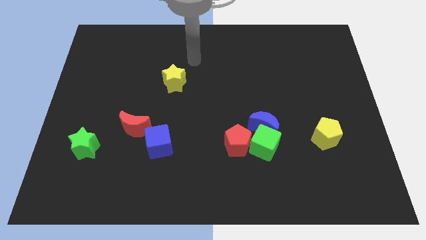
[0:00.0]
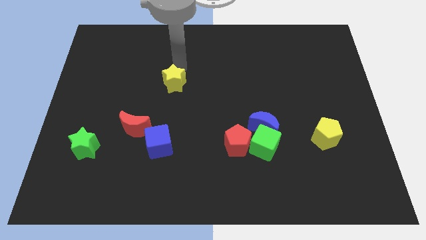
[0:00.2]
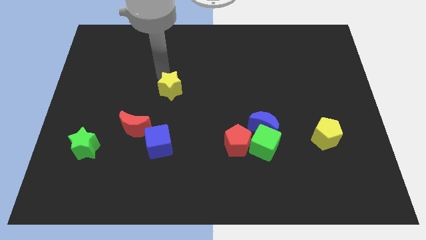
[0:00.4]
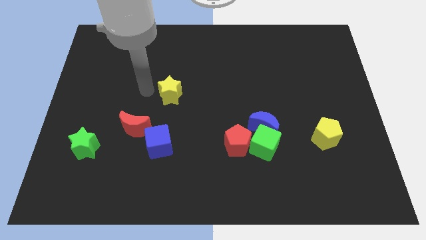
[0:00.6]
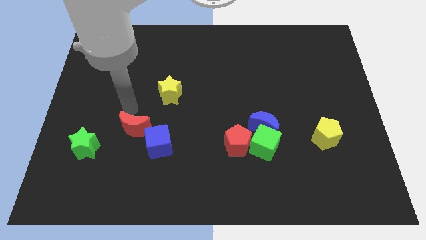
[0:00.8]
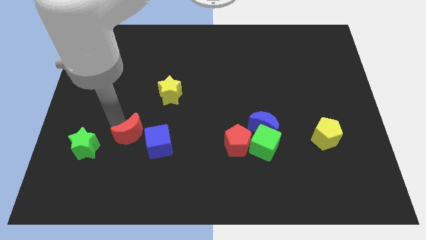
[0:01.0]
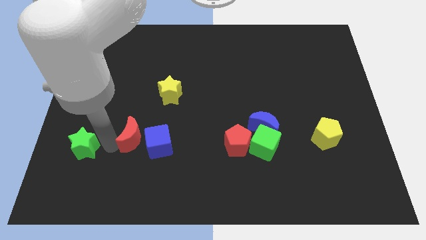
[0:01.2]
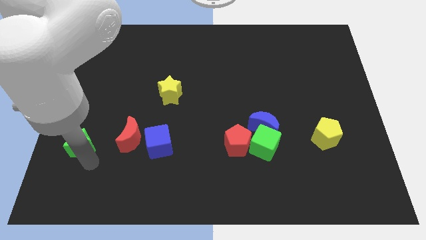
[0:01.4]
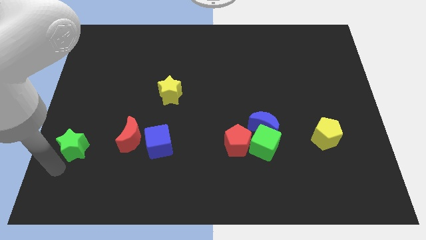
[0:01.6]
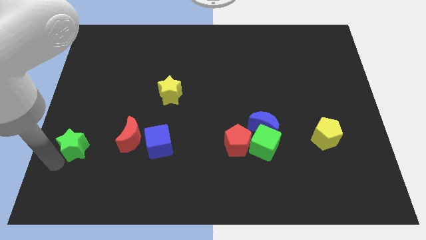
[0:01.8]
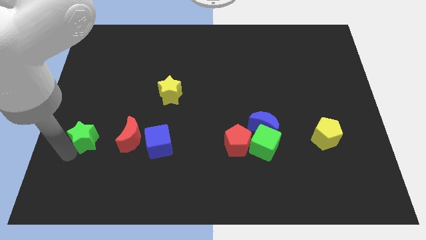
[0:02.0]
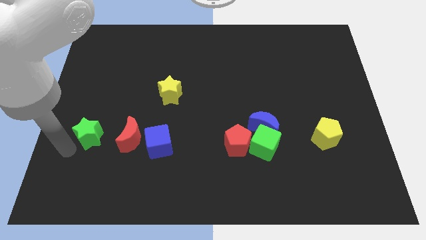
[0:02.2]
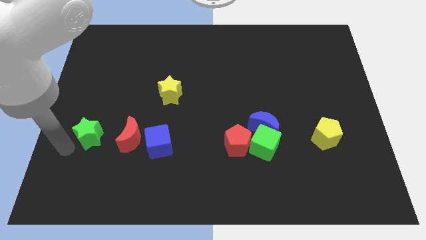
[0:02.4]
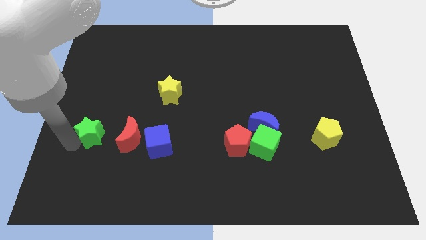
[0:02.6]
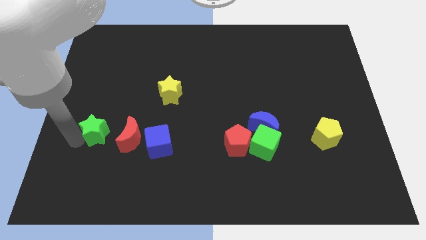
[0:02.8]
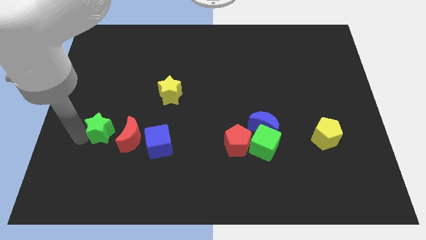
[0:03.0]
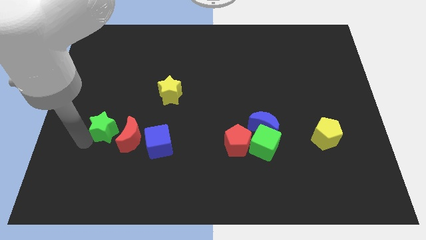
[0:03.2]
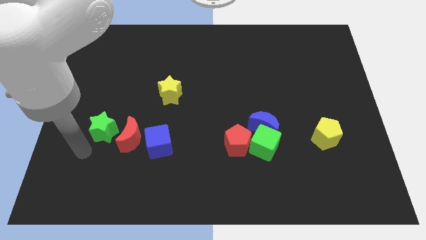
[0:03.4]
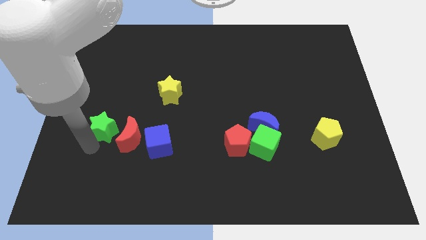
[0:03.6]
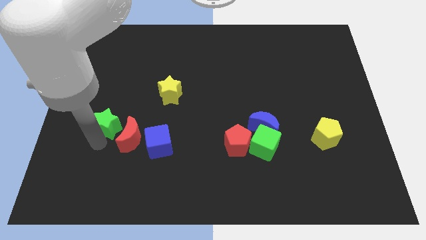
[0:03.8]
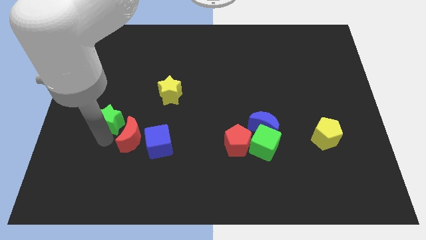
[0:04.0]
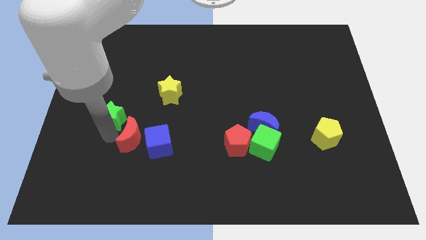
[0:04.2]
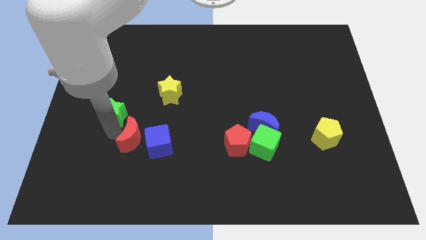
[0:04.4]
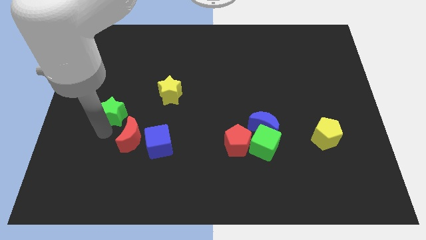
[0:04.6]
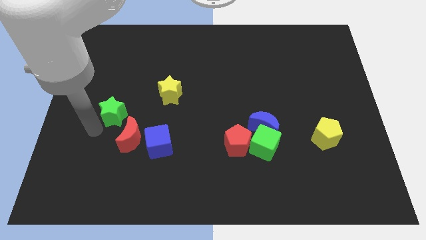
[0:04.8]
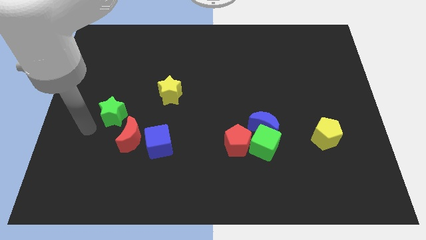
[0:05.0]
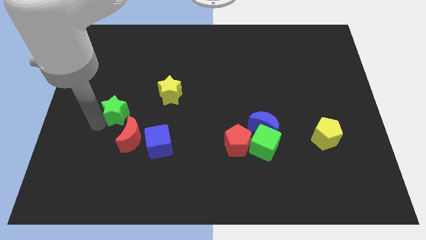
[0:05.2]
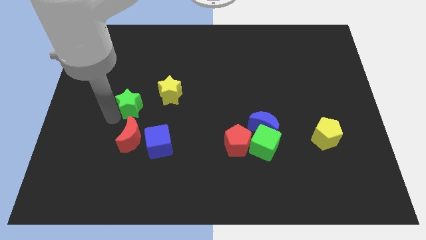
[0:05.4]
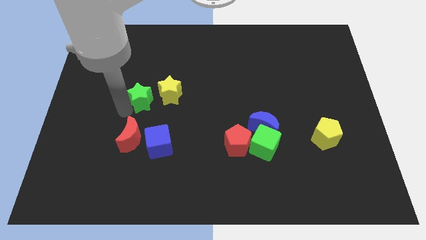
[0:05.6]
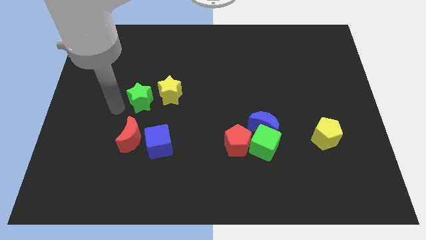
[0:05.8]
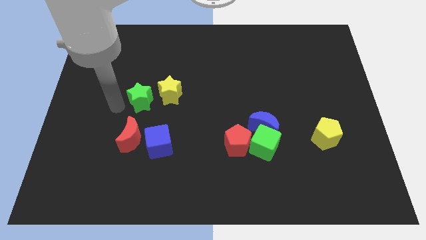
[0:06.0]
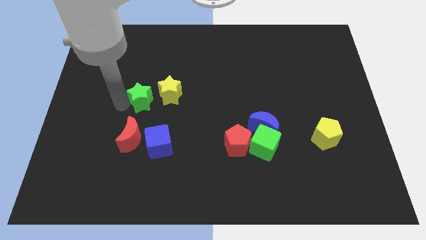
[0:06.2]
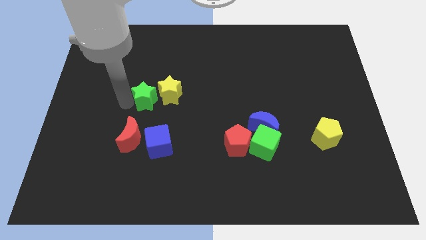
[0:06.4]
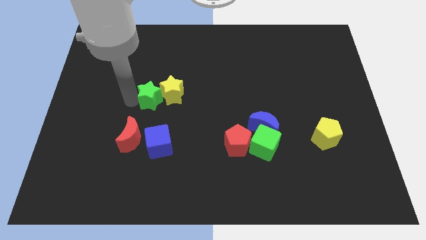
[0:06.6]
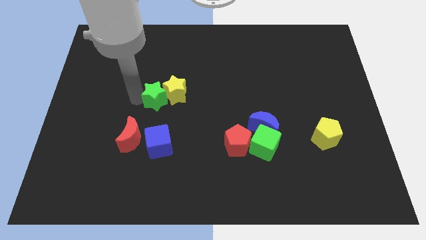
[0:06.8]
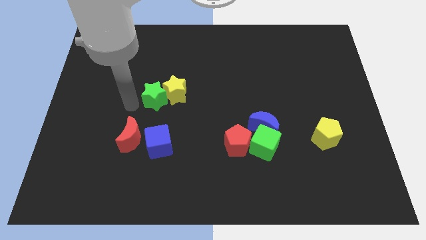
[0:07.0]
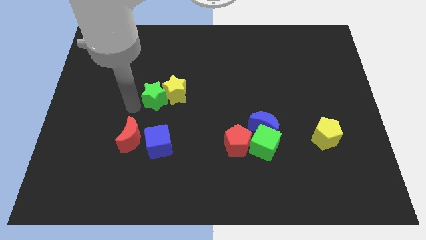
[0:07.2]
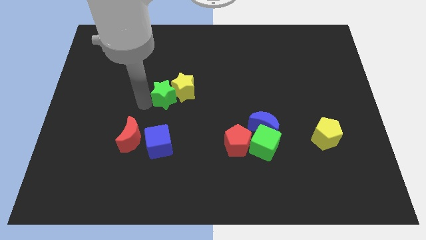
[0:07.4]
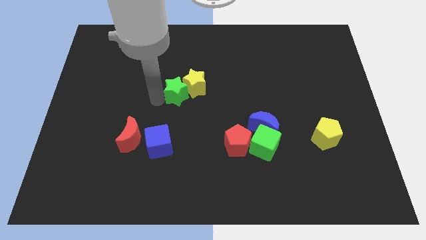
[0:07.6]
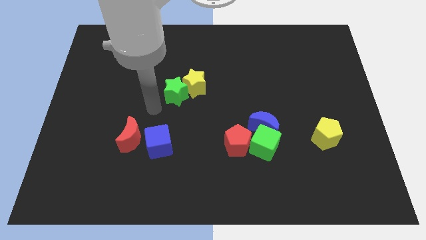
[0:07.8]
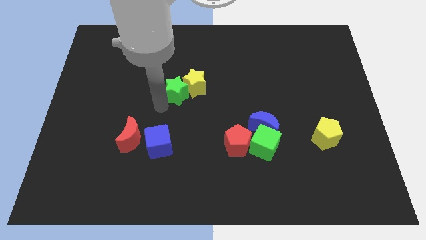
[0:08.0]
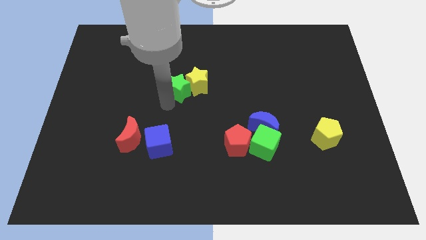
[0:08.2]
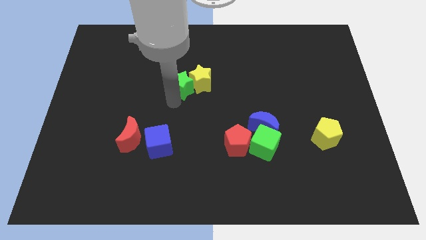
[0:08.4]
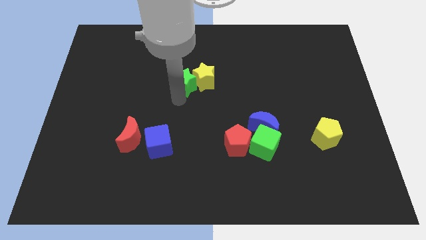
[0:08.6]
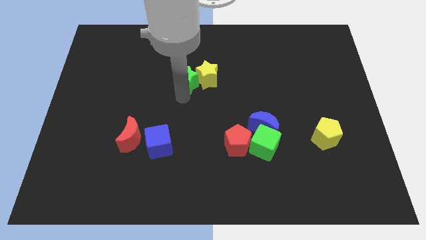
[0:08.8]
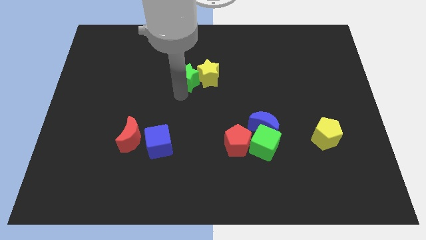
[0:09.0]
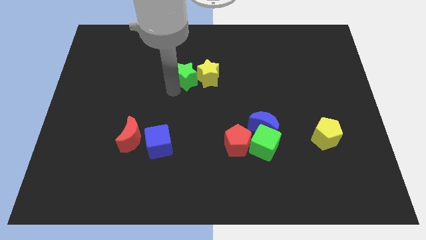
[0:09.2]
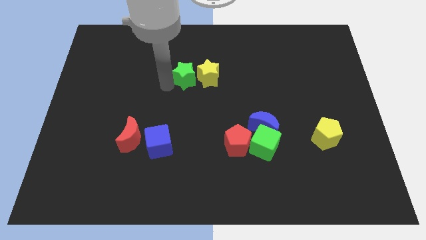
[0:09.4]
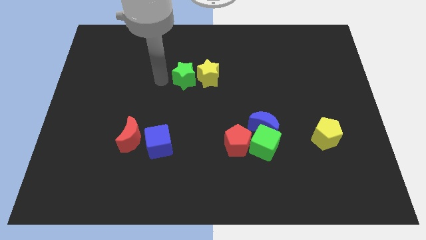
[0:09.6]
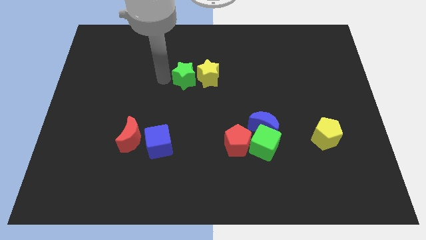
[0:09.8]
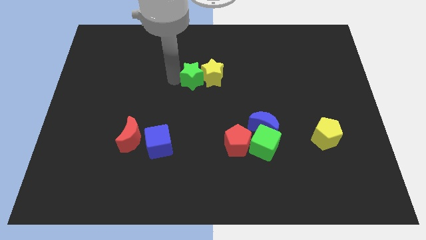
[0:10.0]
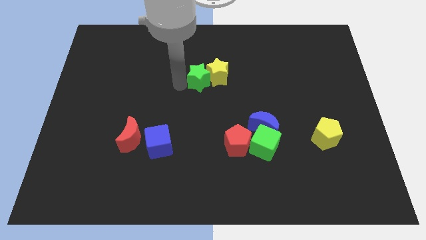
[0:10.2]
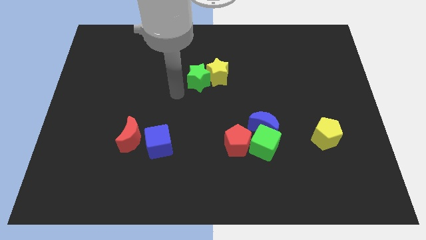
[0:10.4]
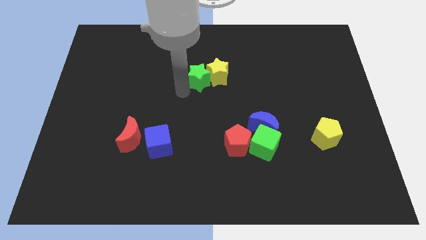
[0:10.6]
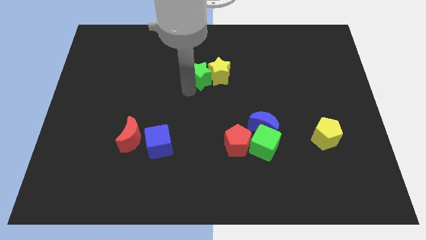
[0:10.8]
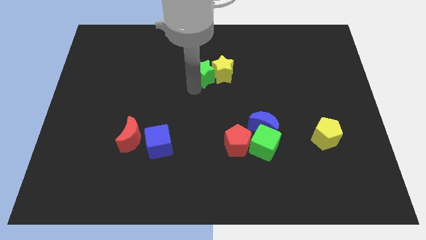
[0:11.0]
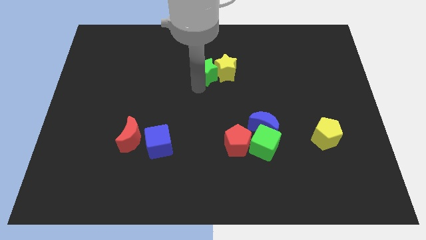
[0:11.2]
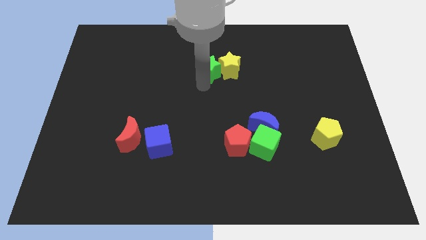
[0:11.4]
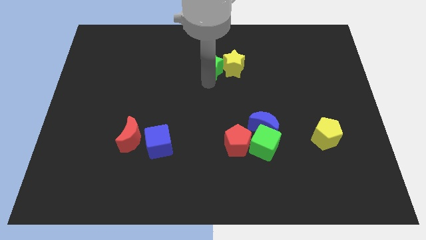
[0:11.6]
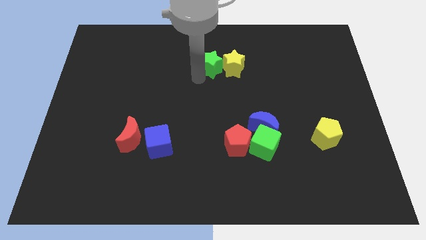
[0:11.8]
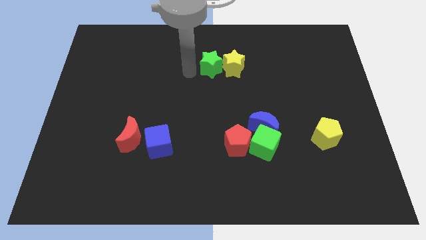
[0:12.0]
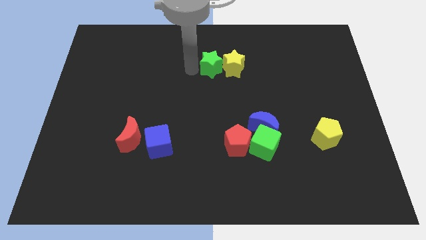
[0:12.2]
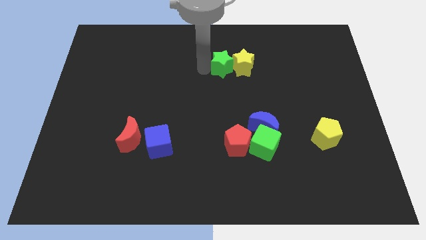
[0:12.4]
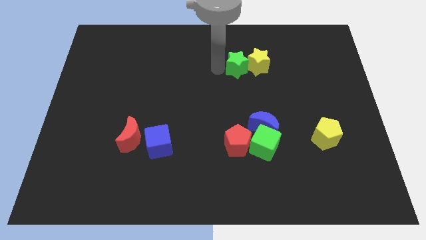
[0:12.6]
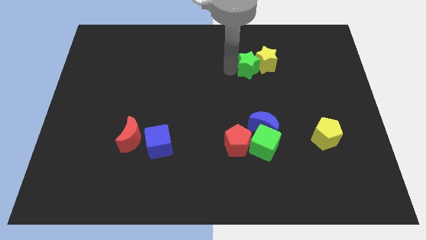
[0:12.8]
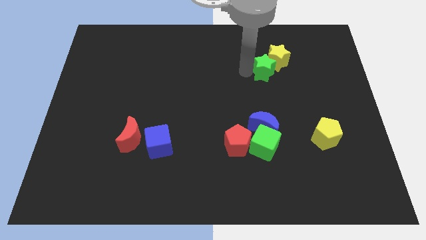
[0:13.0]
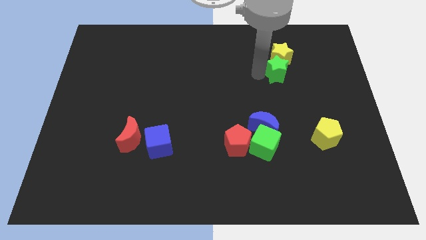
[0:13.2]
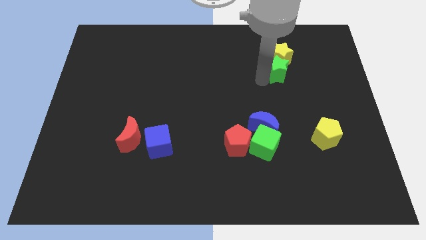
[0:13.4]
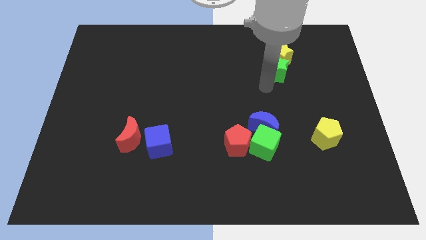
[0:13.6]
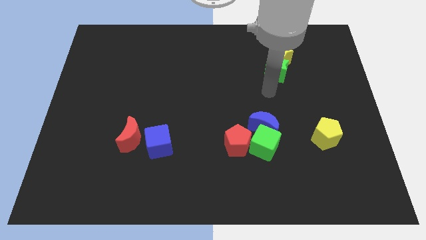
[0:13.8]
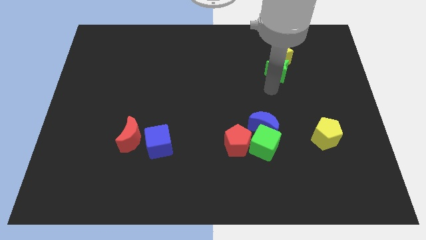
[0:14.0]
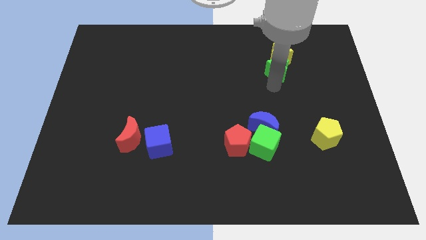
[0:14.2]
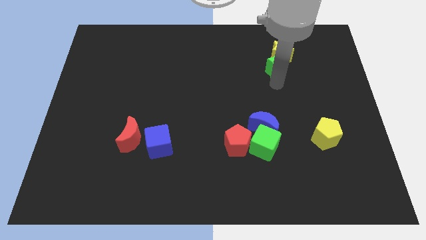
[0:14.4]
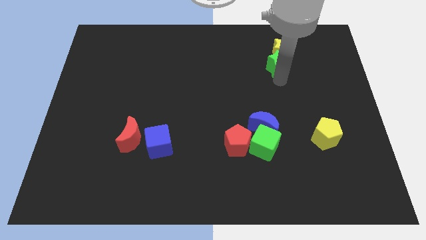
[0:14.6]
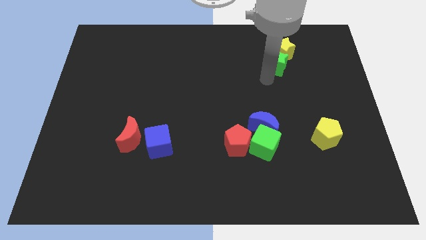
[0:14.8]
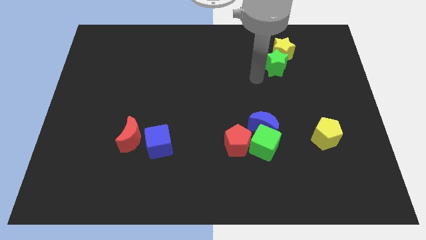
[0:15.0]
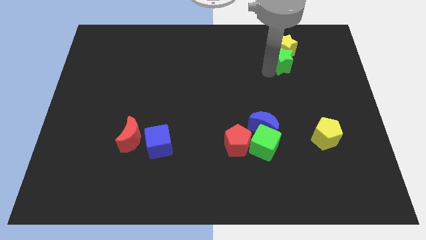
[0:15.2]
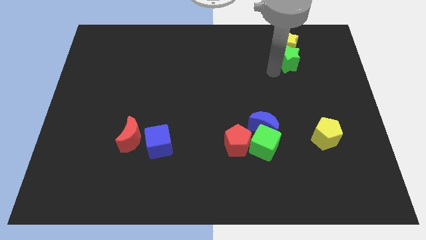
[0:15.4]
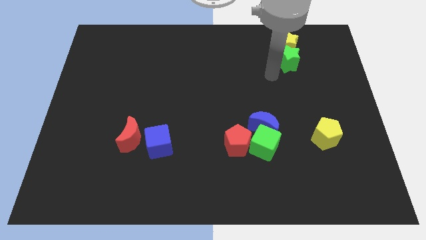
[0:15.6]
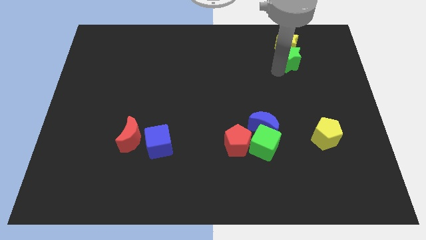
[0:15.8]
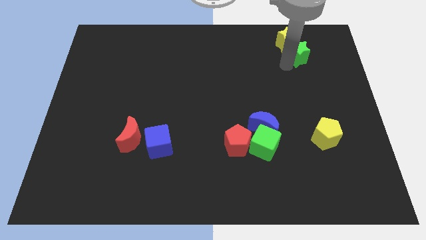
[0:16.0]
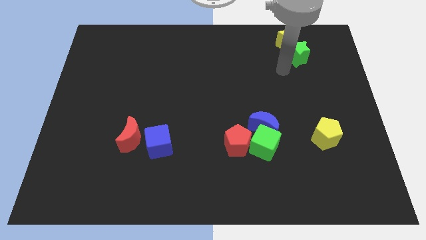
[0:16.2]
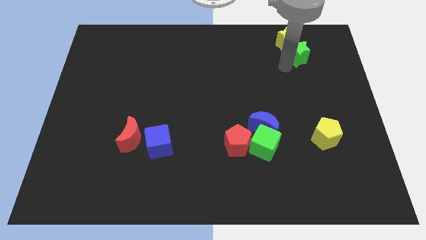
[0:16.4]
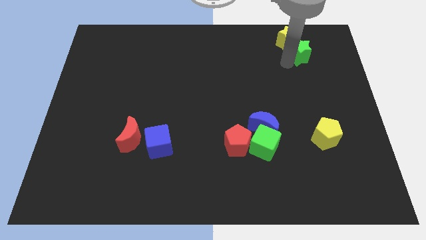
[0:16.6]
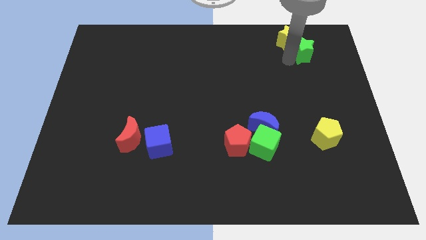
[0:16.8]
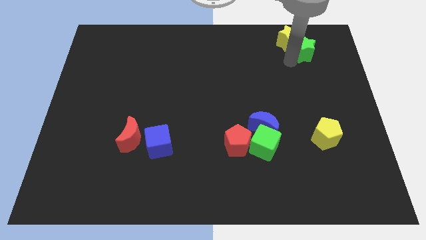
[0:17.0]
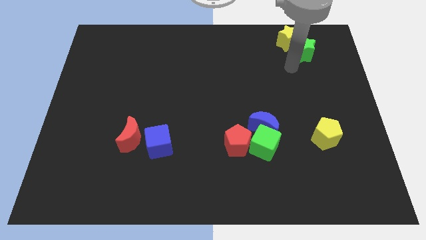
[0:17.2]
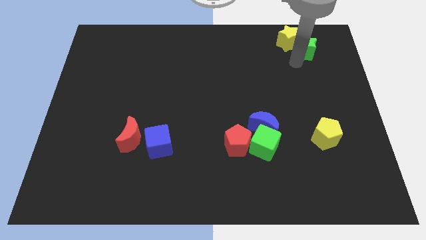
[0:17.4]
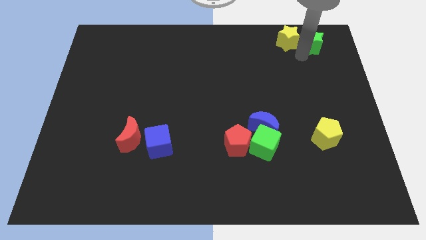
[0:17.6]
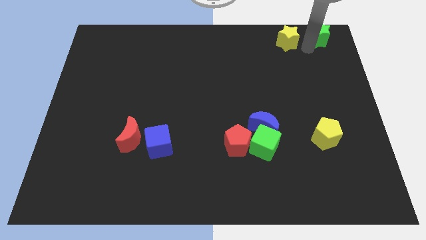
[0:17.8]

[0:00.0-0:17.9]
slide the green star to the top right
